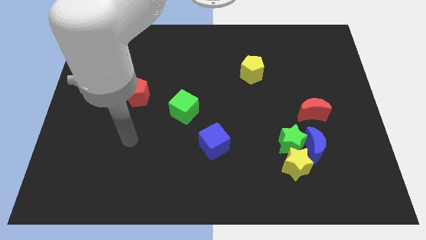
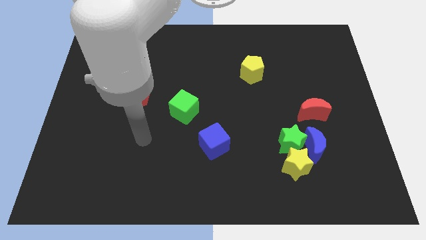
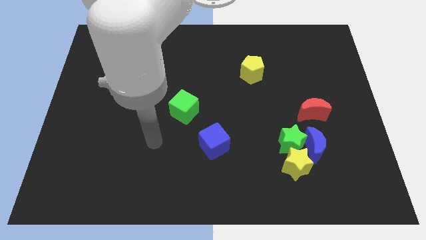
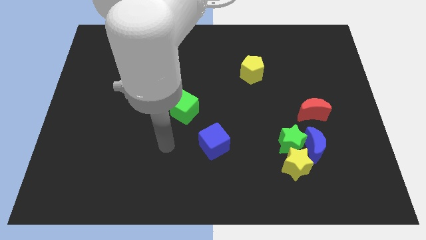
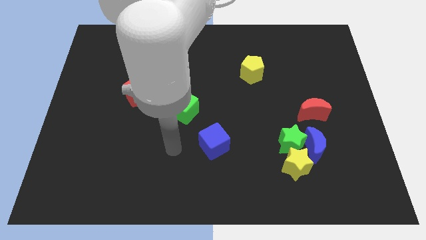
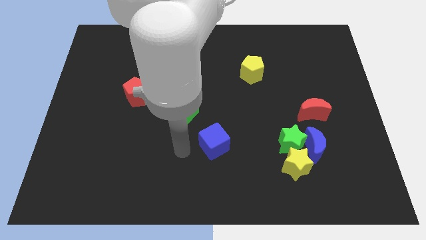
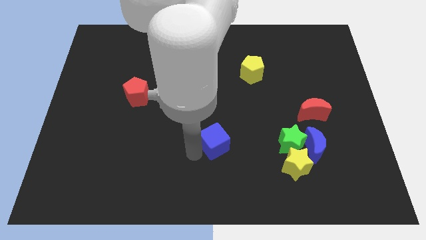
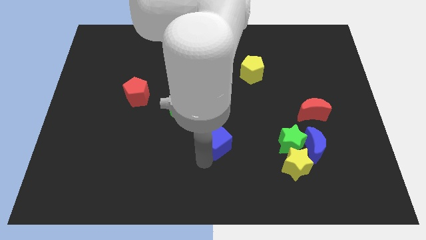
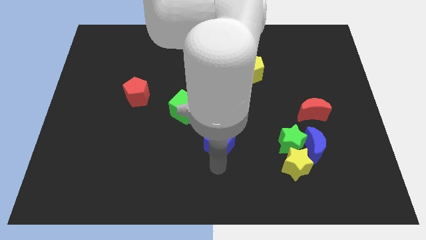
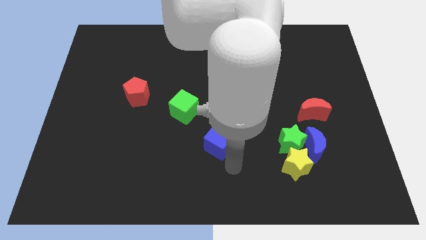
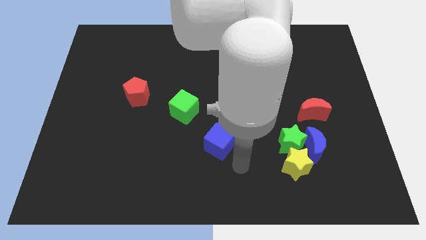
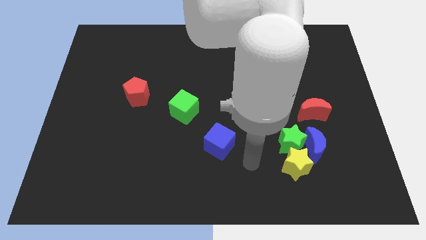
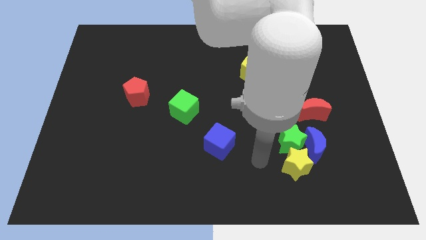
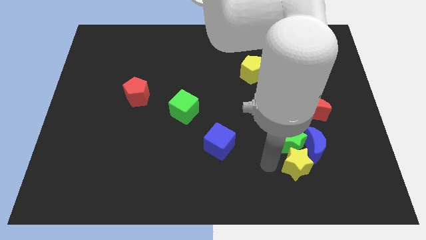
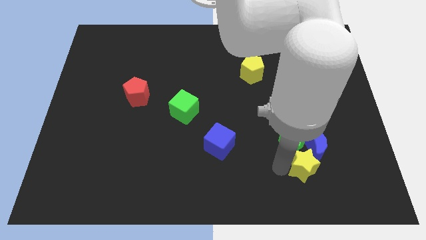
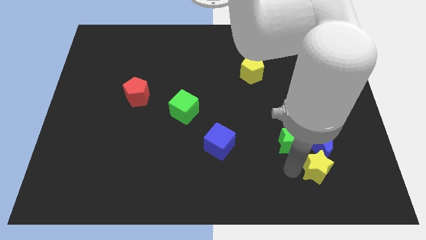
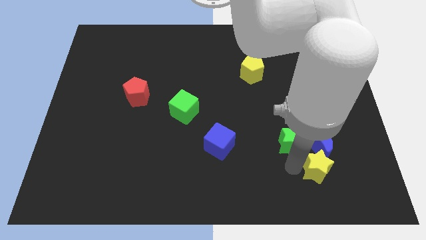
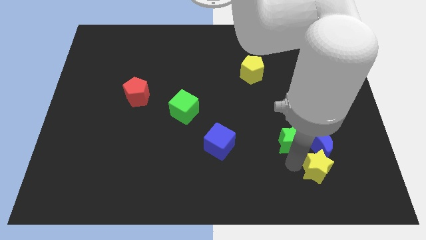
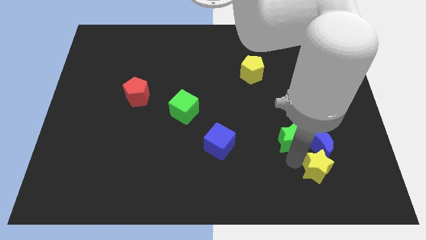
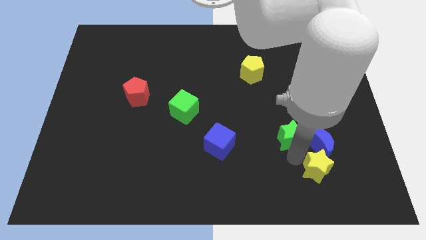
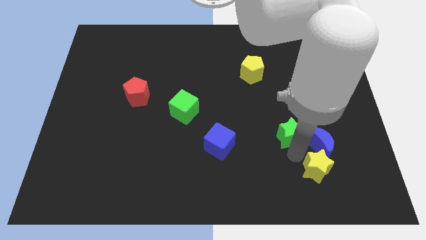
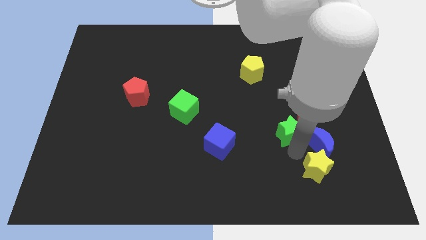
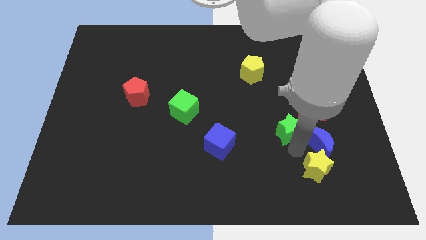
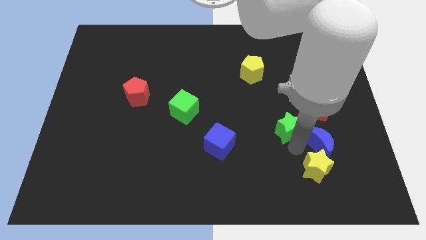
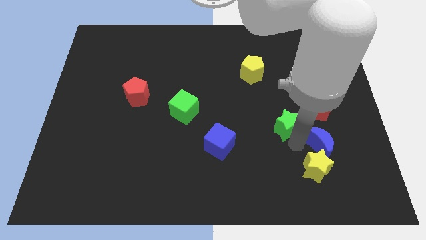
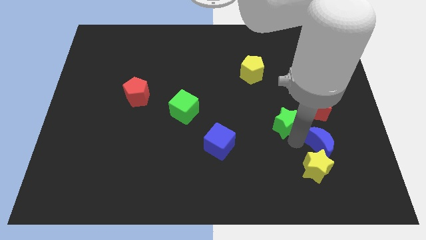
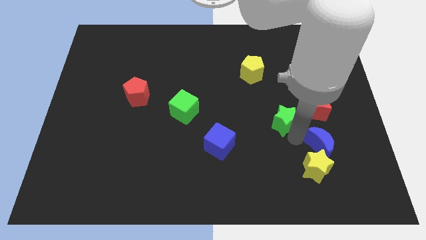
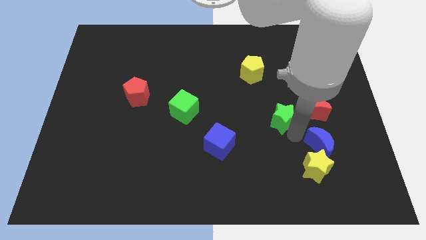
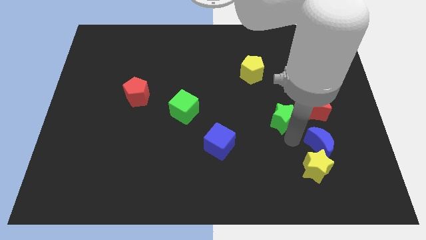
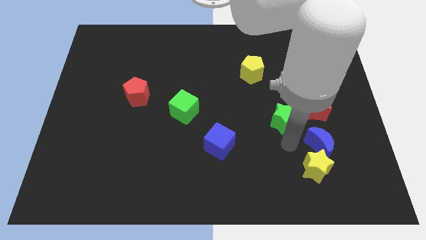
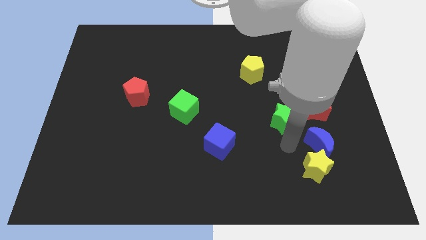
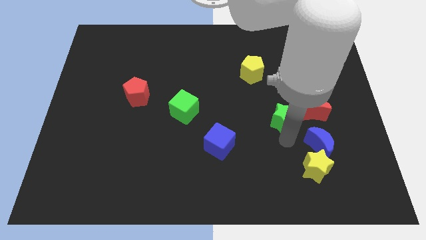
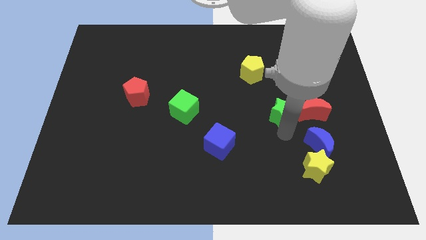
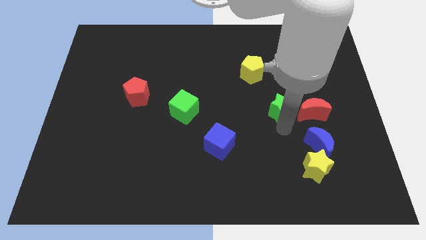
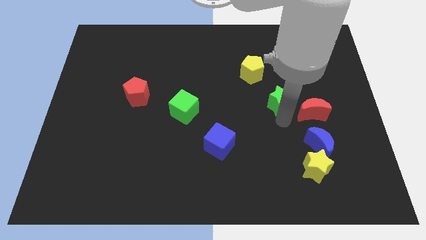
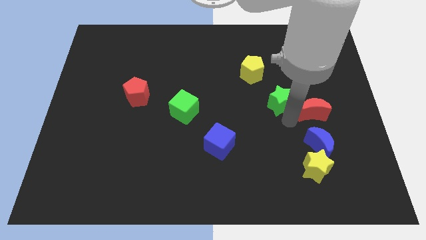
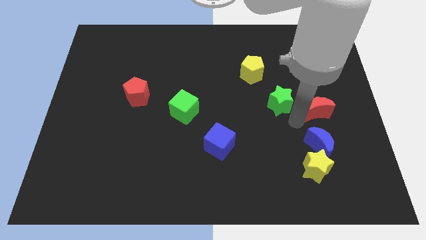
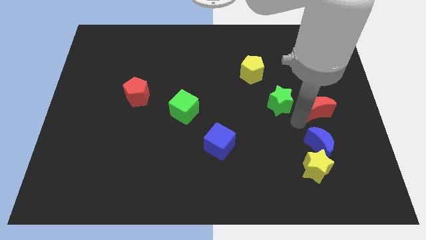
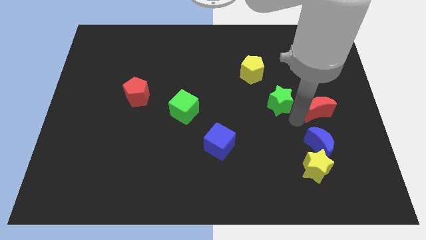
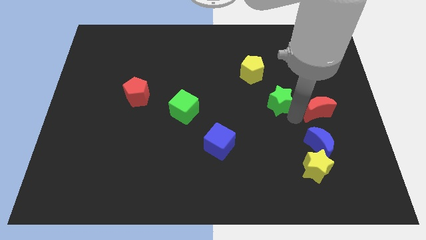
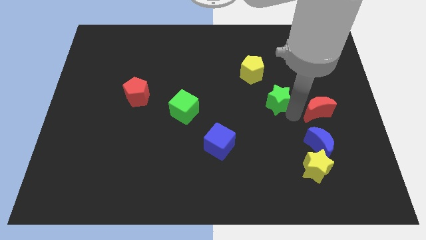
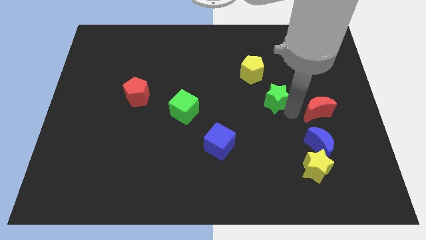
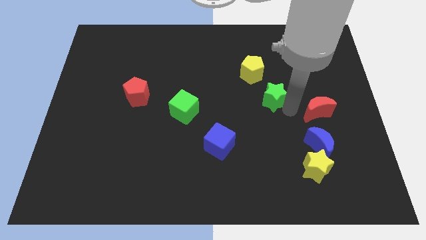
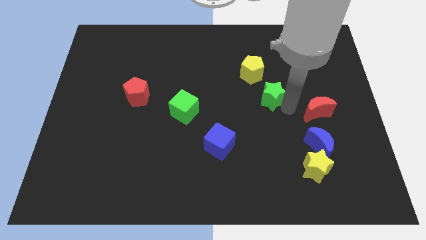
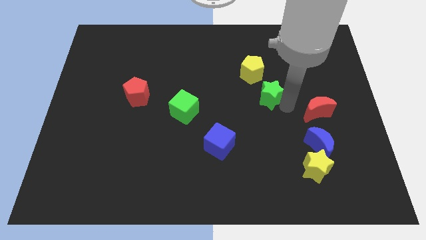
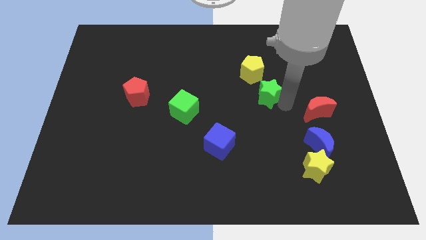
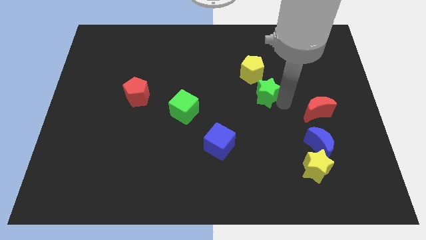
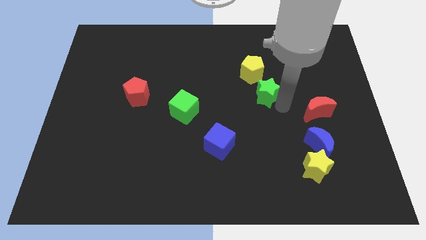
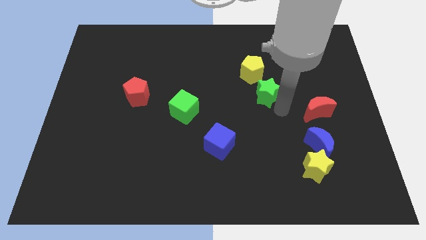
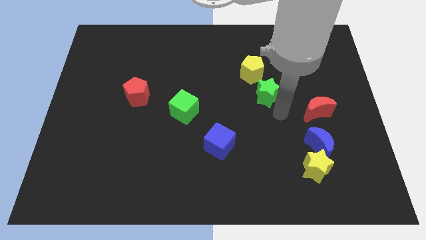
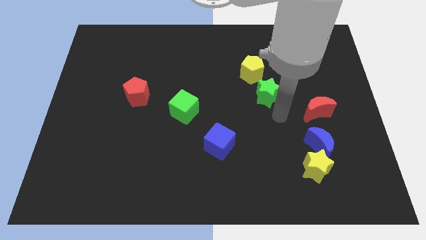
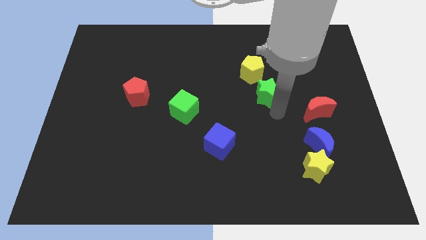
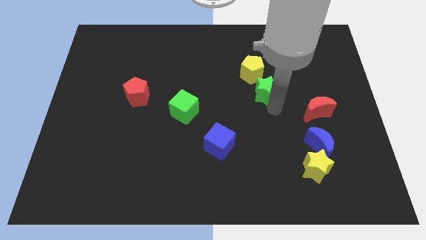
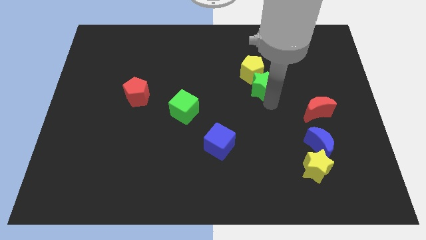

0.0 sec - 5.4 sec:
slide the green star to the yellow pentagon

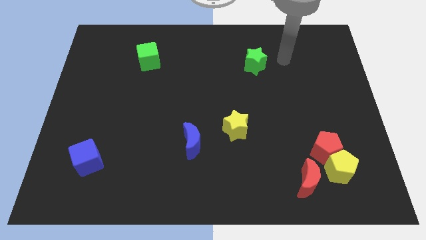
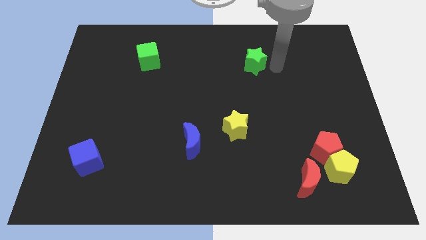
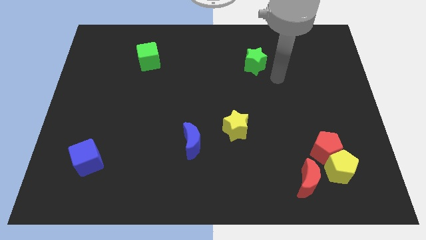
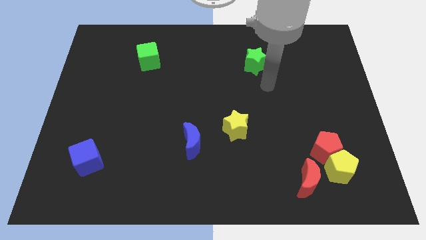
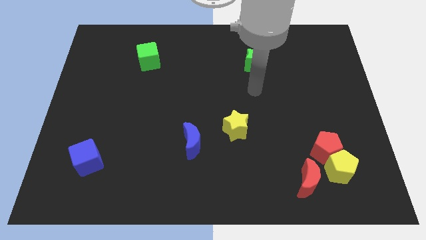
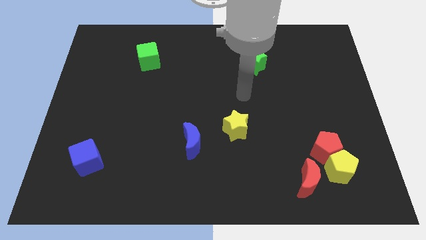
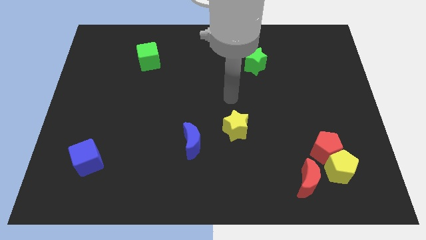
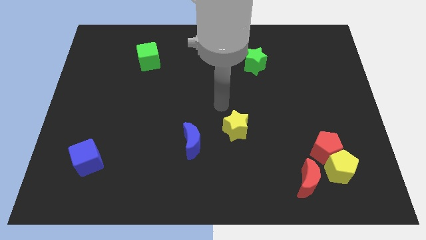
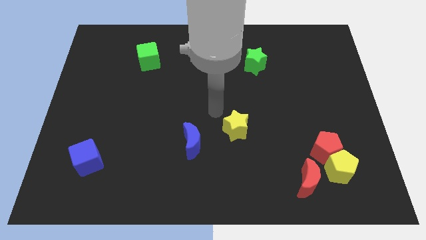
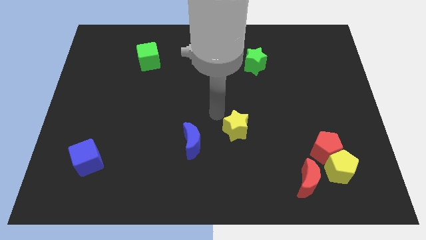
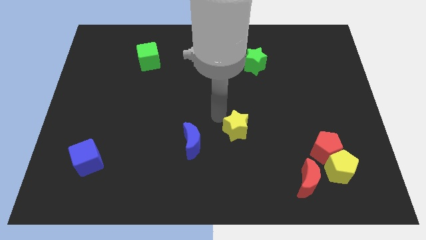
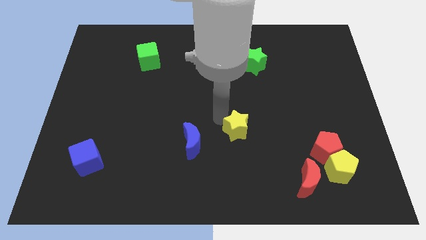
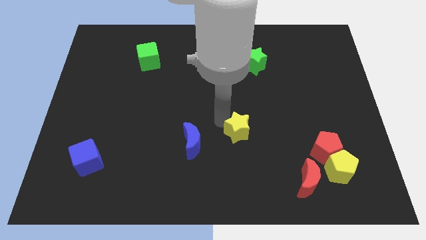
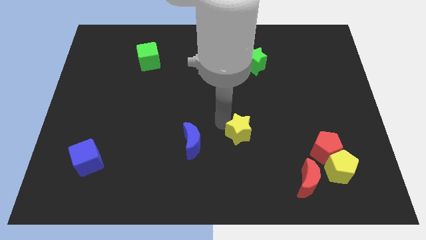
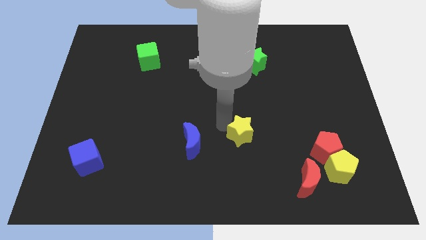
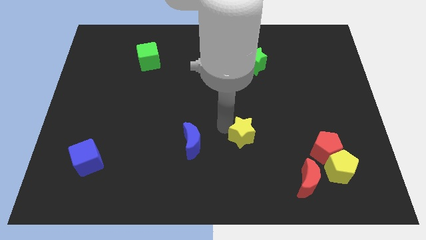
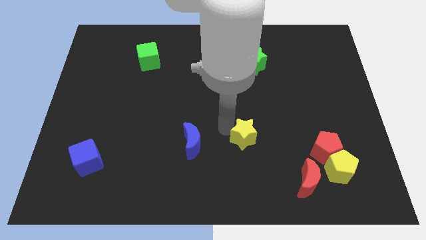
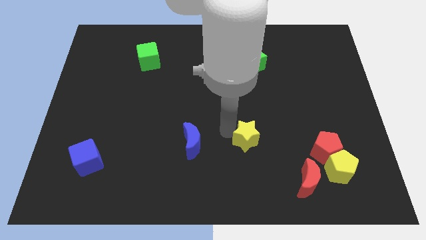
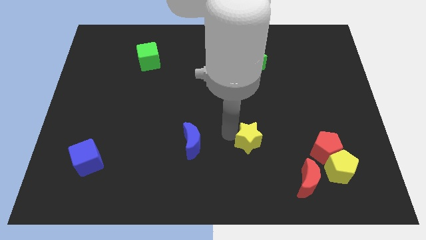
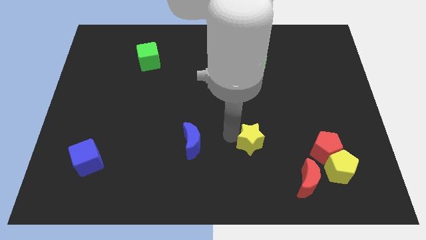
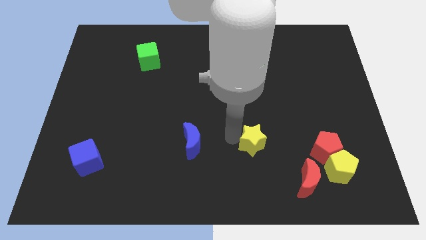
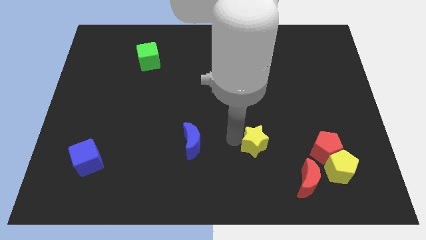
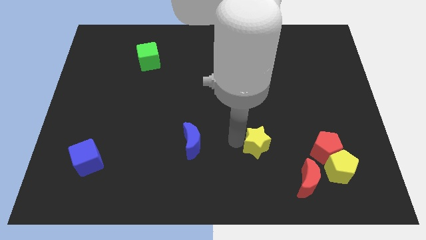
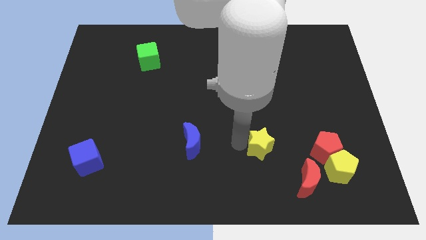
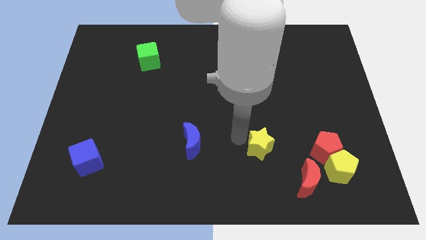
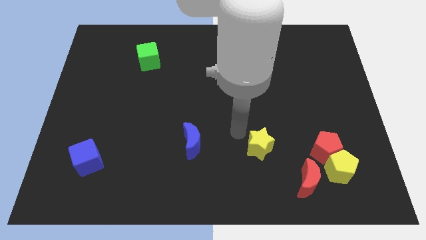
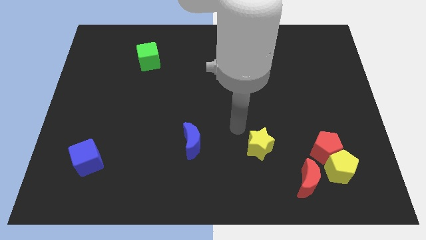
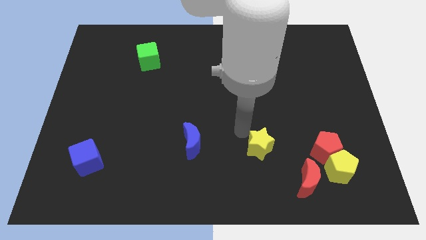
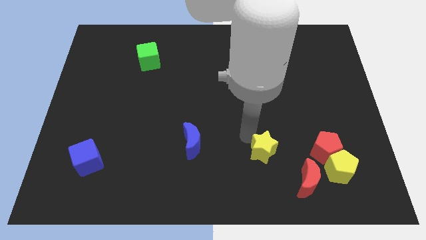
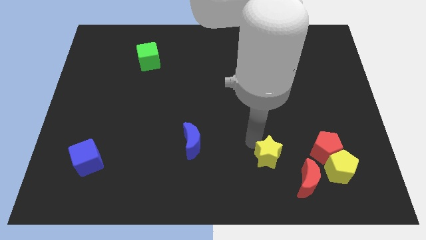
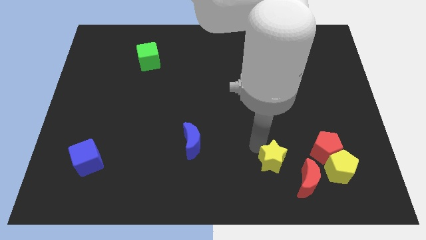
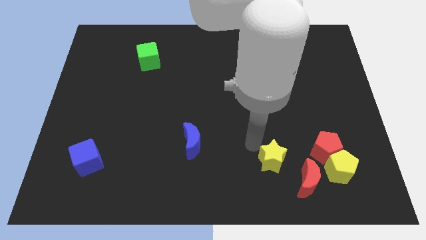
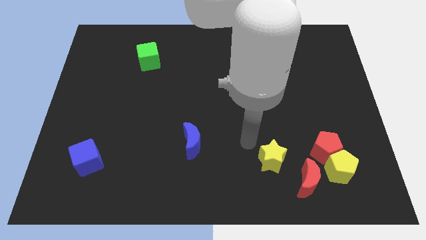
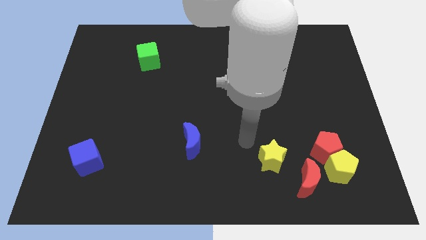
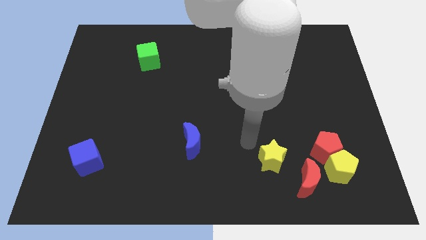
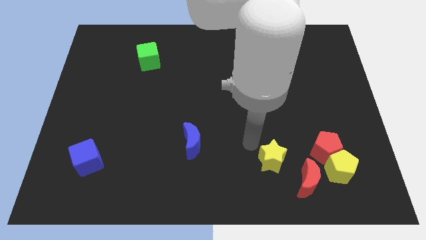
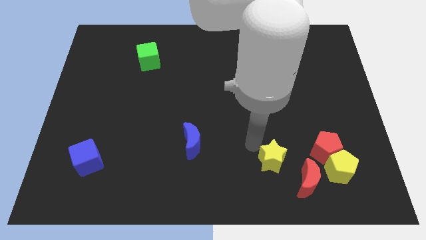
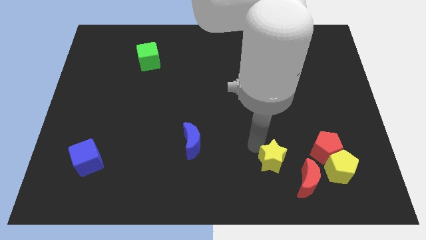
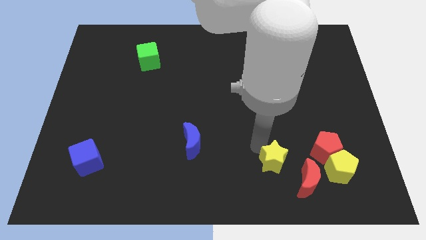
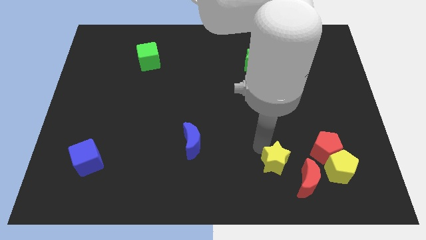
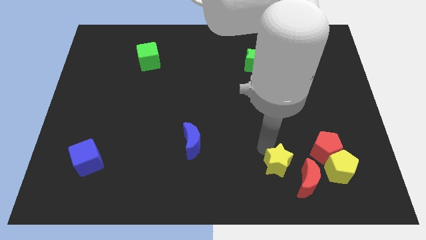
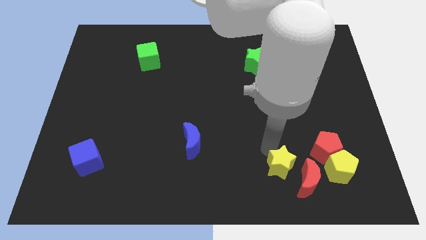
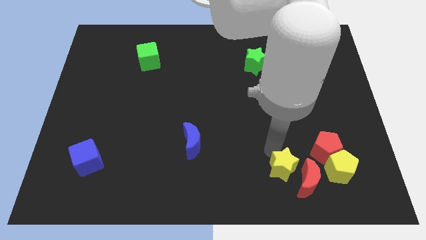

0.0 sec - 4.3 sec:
move the yellow star next to the red moon
